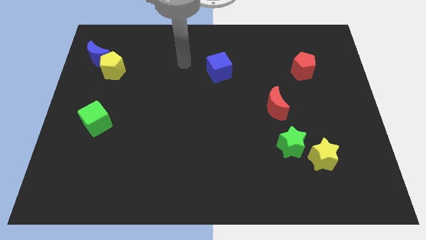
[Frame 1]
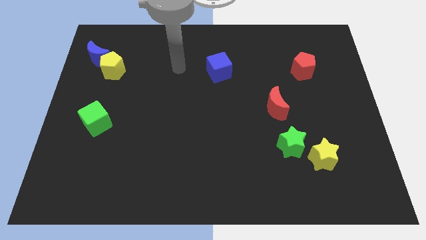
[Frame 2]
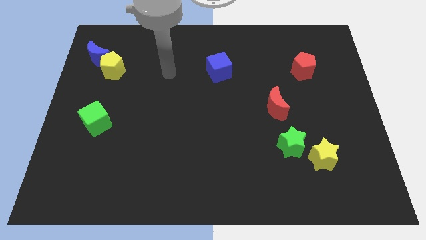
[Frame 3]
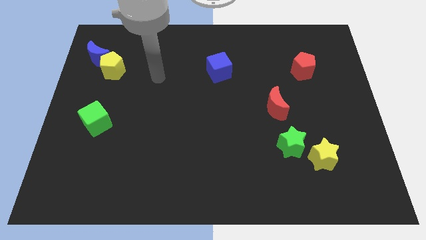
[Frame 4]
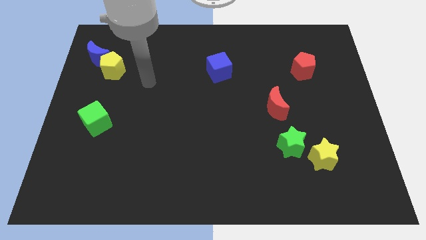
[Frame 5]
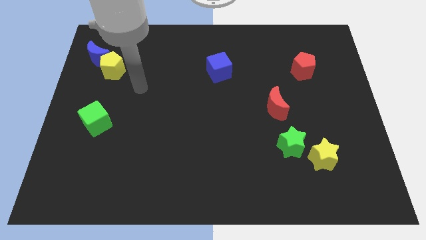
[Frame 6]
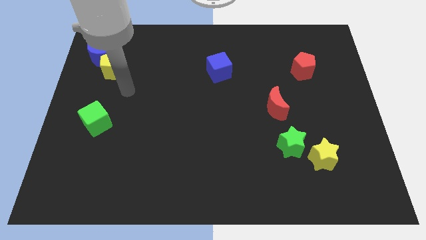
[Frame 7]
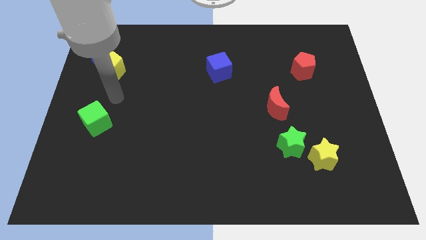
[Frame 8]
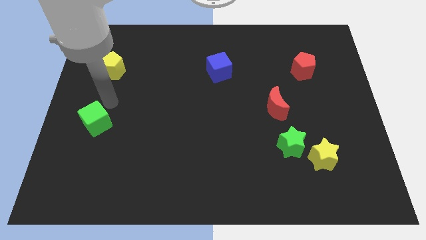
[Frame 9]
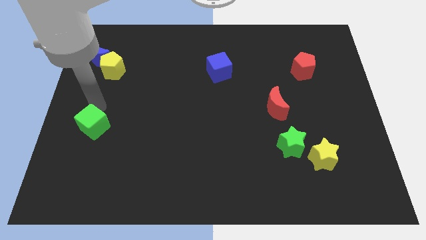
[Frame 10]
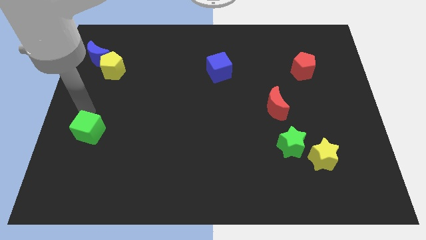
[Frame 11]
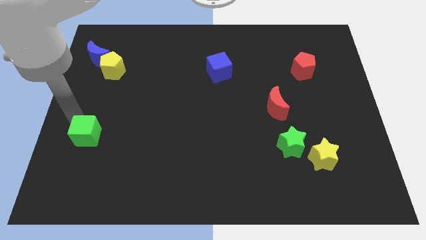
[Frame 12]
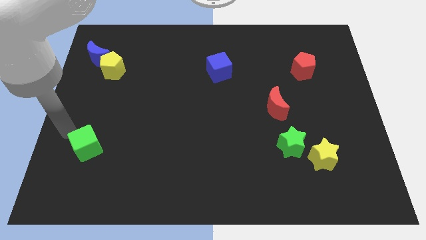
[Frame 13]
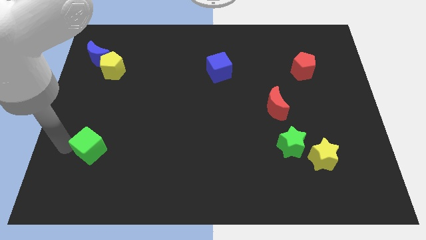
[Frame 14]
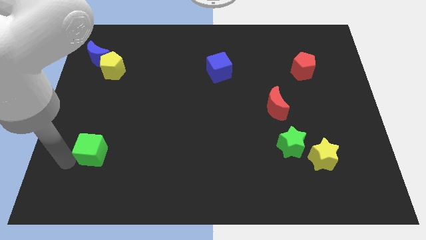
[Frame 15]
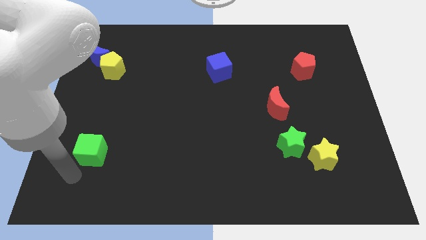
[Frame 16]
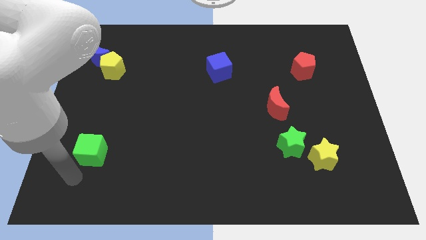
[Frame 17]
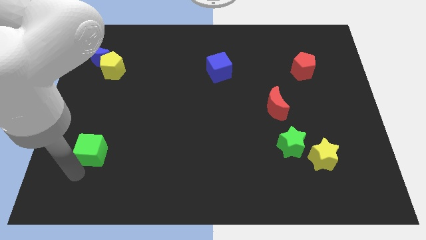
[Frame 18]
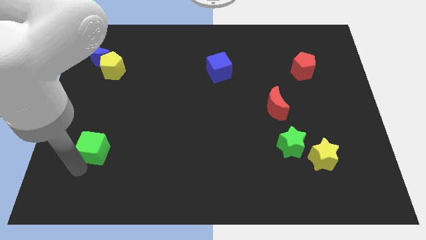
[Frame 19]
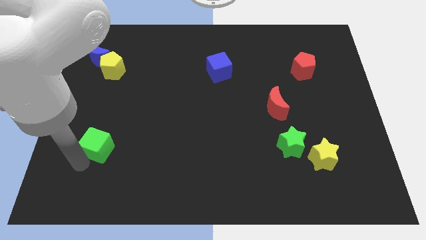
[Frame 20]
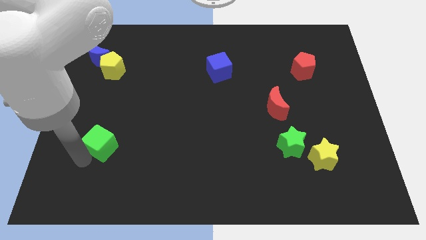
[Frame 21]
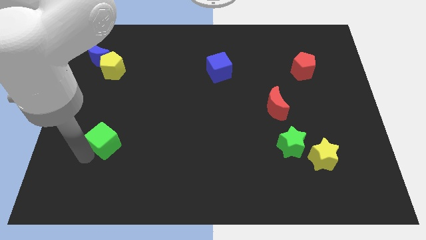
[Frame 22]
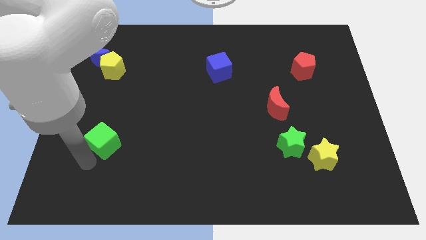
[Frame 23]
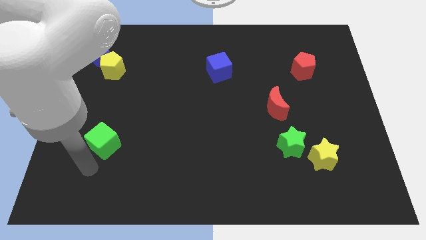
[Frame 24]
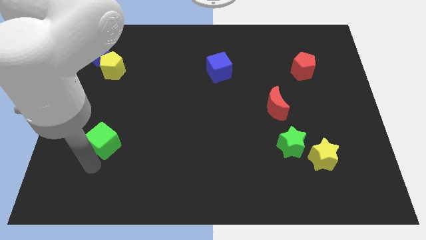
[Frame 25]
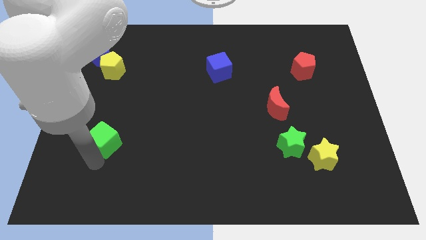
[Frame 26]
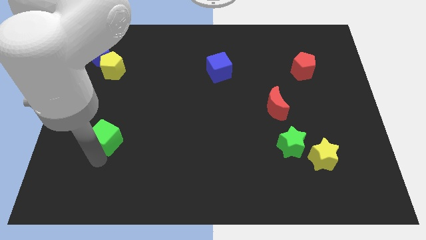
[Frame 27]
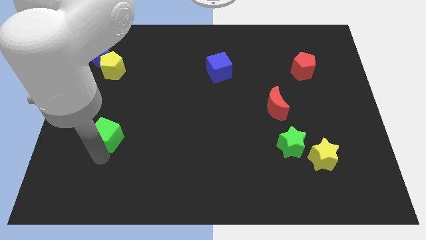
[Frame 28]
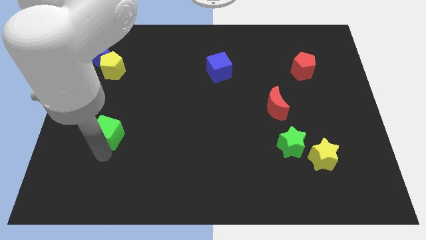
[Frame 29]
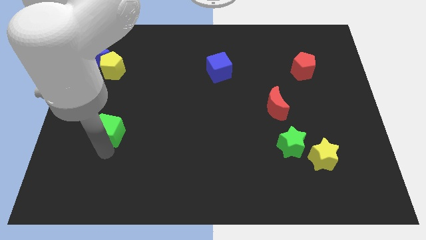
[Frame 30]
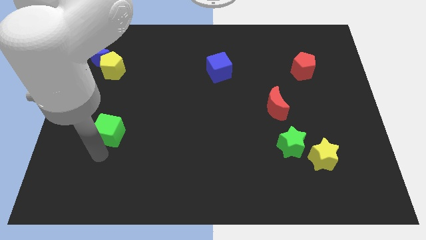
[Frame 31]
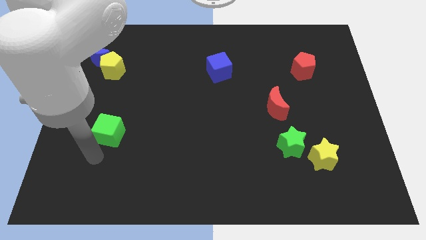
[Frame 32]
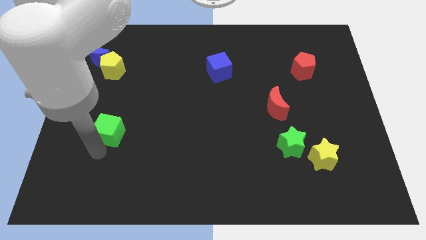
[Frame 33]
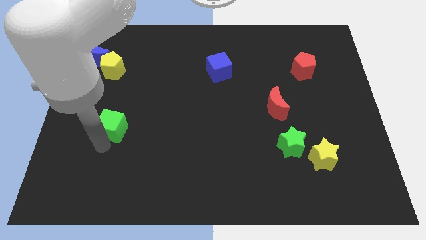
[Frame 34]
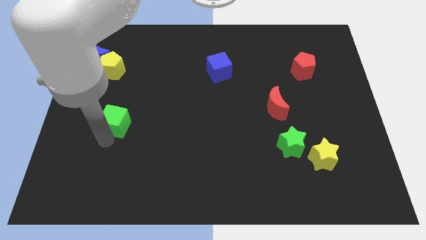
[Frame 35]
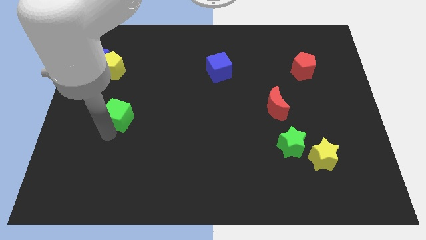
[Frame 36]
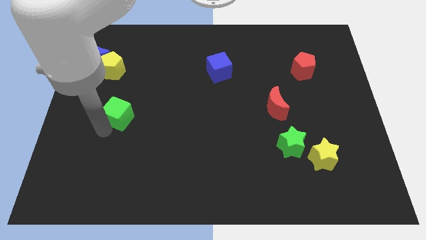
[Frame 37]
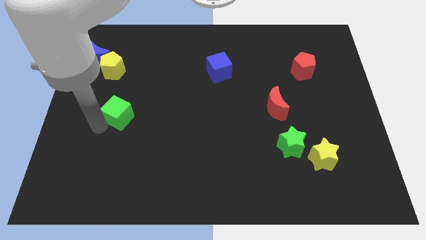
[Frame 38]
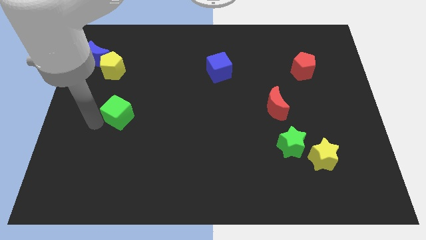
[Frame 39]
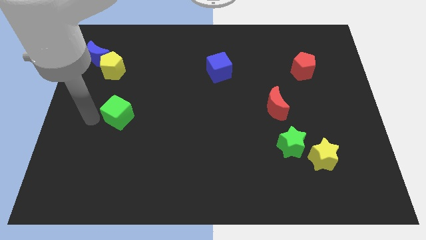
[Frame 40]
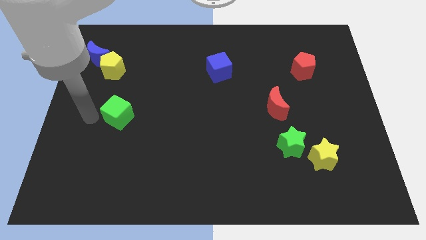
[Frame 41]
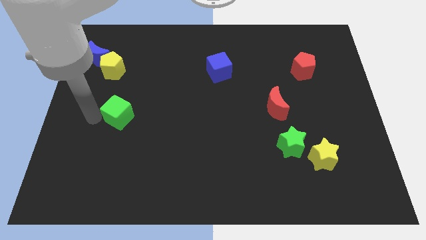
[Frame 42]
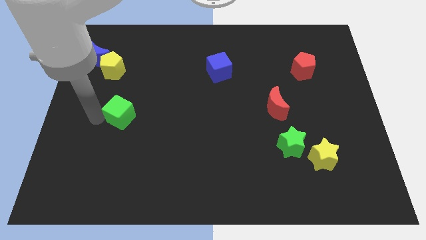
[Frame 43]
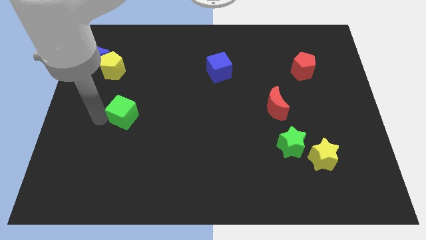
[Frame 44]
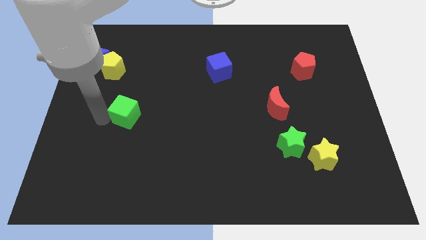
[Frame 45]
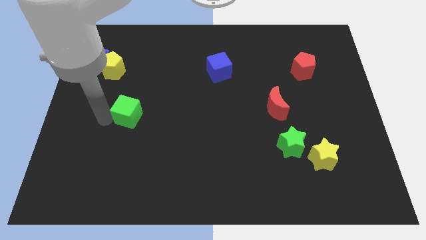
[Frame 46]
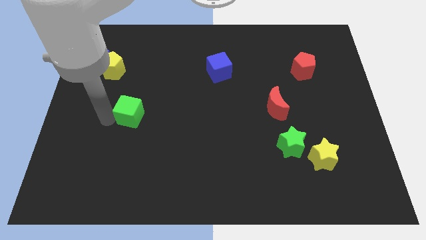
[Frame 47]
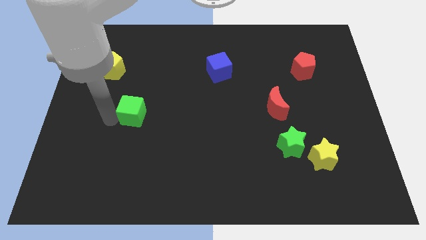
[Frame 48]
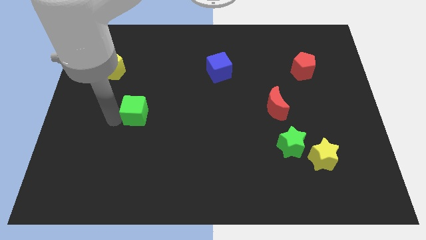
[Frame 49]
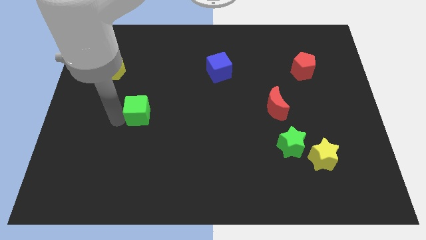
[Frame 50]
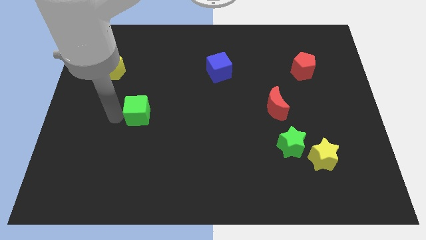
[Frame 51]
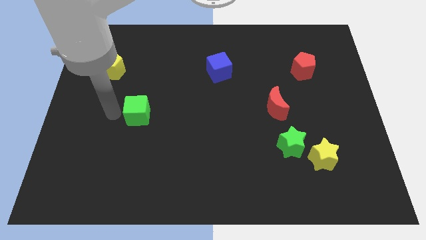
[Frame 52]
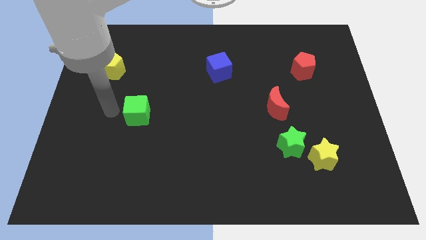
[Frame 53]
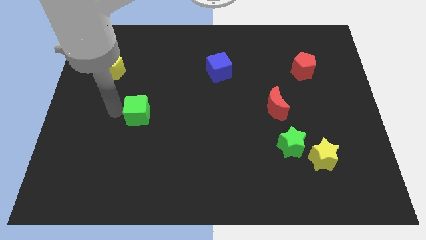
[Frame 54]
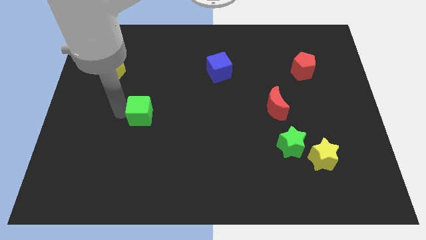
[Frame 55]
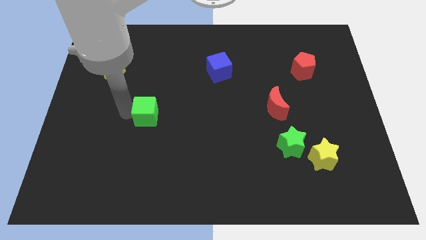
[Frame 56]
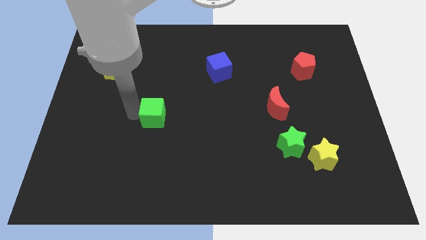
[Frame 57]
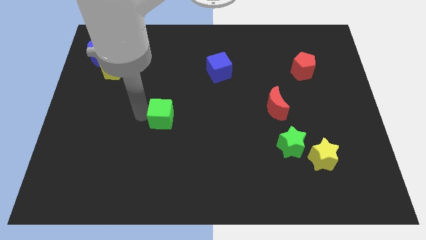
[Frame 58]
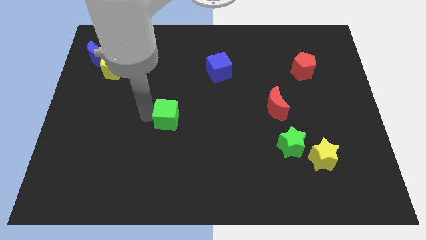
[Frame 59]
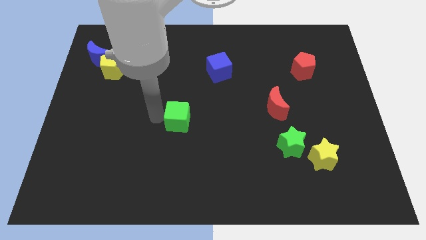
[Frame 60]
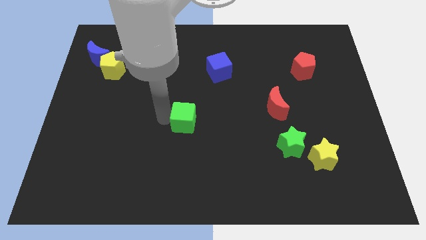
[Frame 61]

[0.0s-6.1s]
slide the green cube right

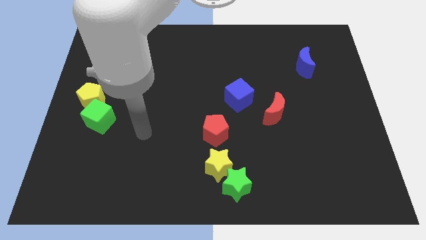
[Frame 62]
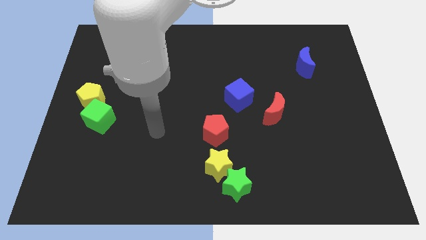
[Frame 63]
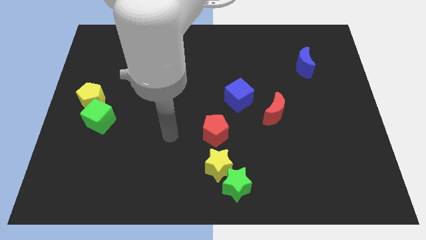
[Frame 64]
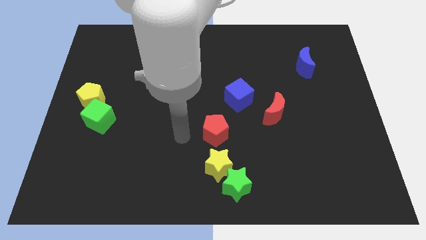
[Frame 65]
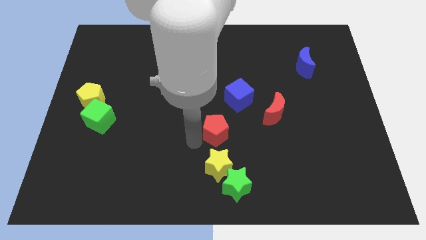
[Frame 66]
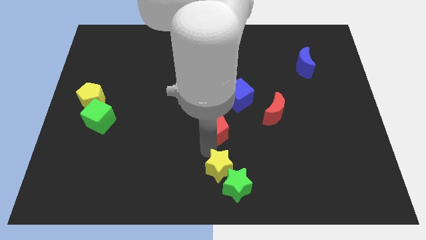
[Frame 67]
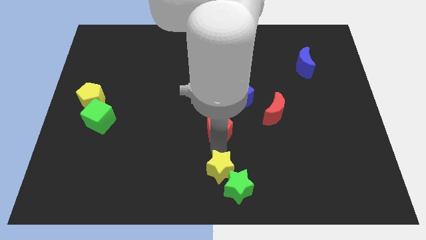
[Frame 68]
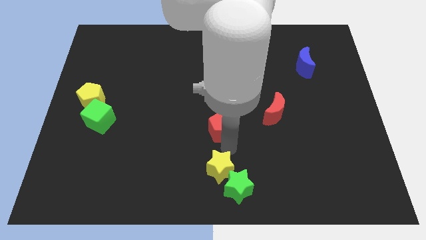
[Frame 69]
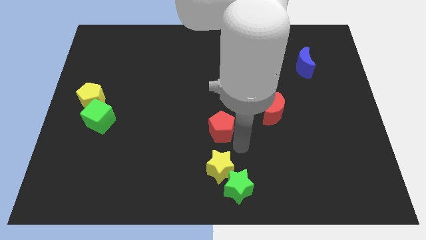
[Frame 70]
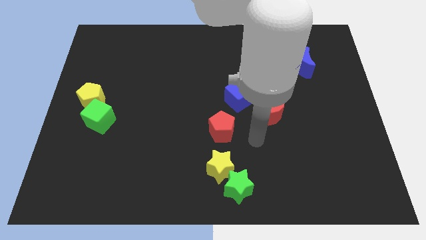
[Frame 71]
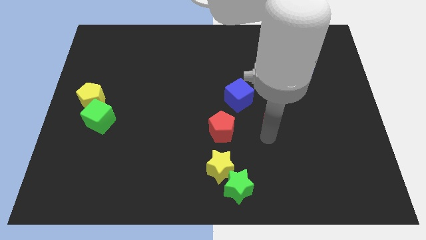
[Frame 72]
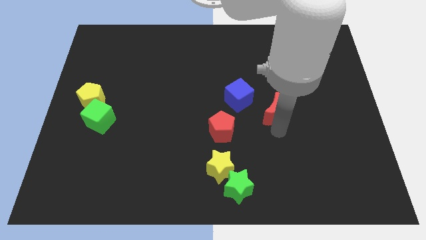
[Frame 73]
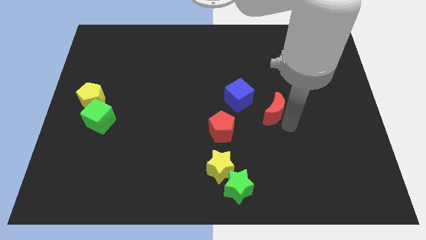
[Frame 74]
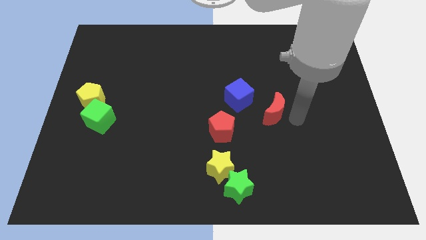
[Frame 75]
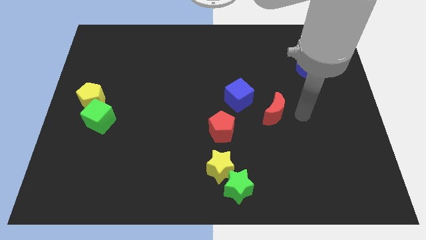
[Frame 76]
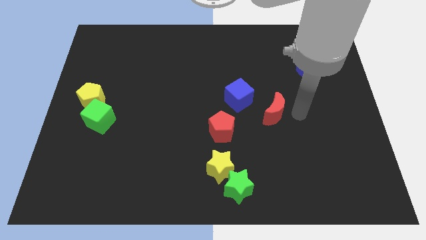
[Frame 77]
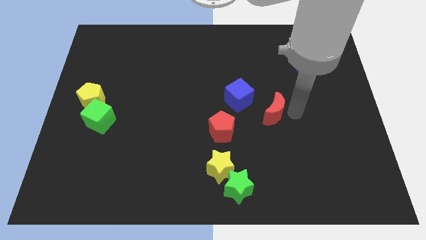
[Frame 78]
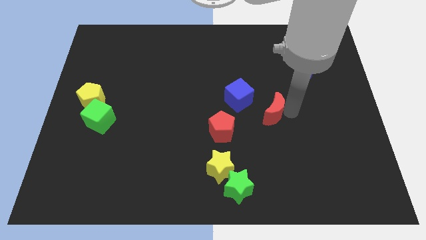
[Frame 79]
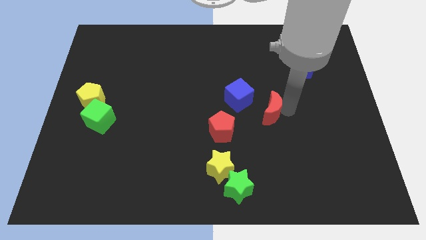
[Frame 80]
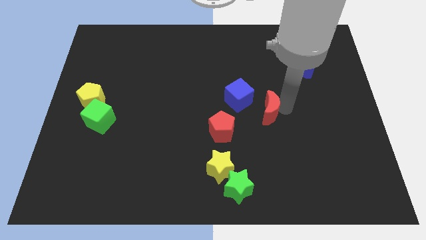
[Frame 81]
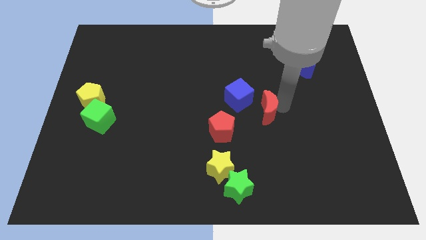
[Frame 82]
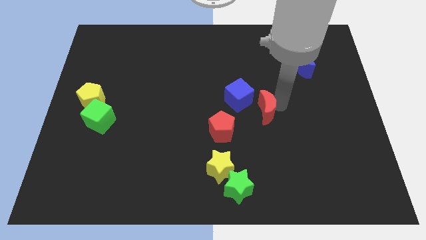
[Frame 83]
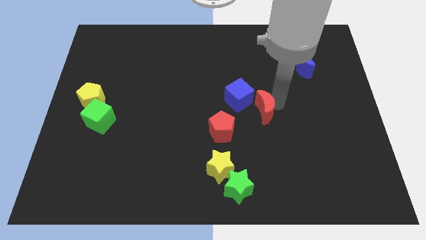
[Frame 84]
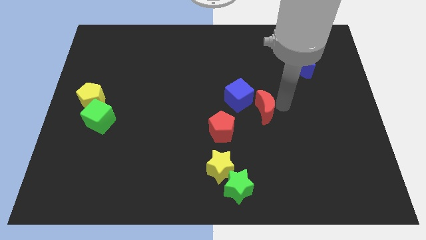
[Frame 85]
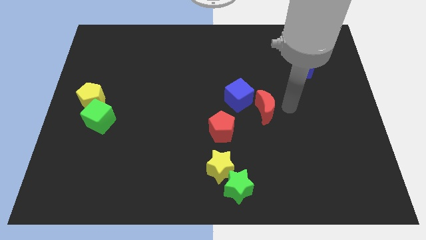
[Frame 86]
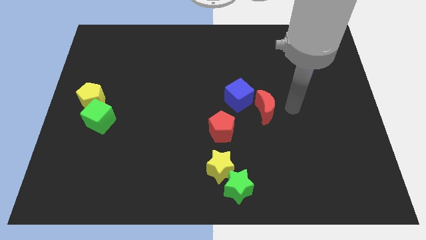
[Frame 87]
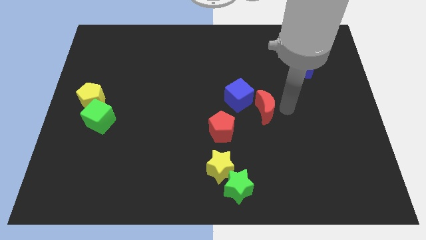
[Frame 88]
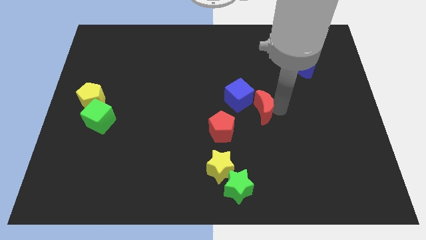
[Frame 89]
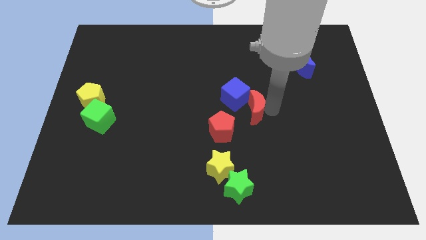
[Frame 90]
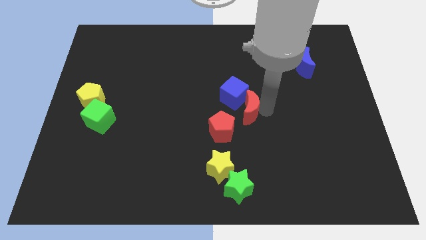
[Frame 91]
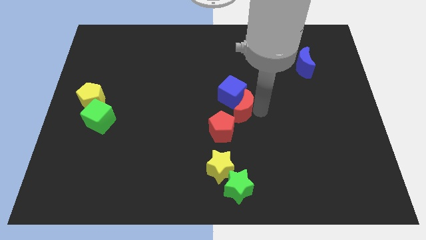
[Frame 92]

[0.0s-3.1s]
slide the red moon to the left a little
